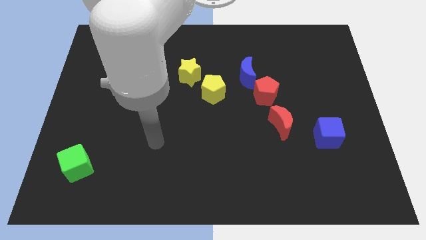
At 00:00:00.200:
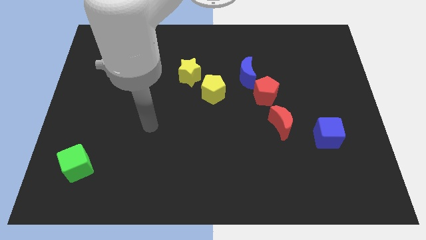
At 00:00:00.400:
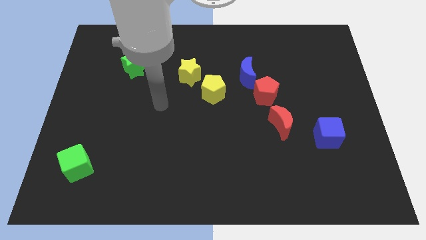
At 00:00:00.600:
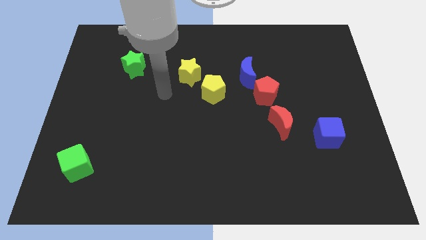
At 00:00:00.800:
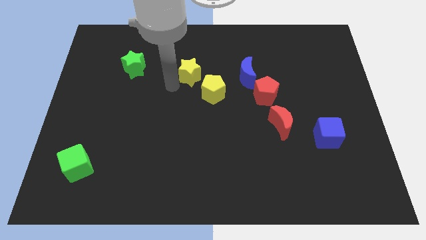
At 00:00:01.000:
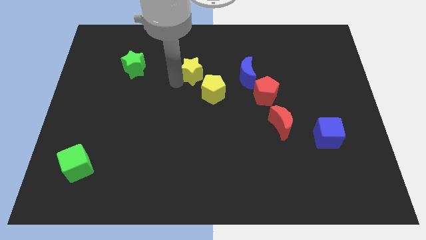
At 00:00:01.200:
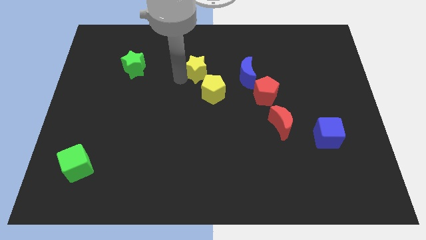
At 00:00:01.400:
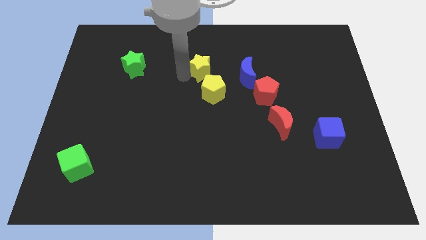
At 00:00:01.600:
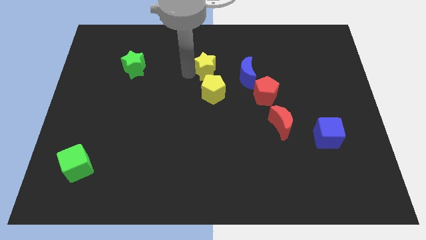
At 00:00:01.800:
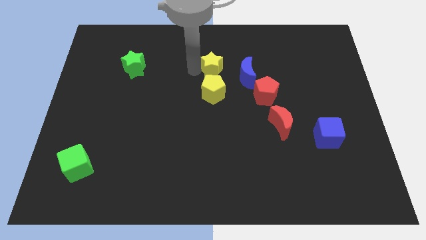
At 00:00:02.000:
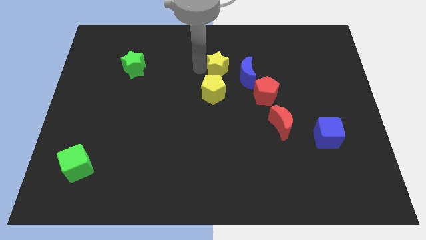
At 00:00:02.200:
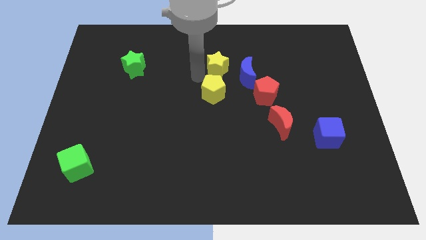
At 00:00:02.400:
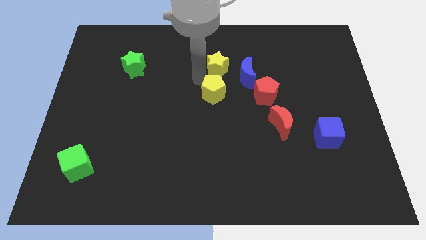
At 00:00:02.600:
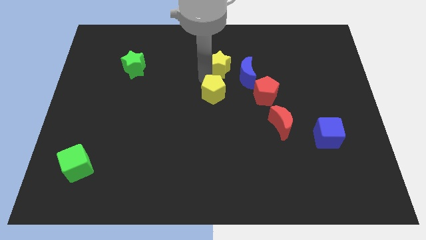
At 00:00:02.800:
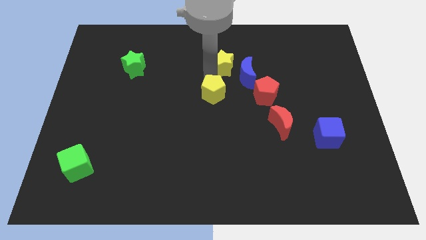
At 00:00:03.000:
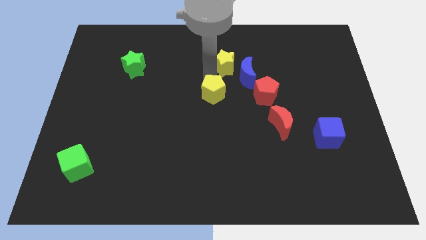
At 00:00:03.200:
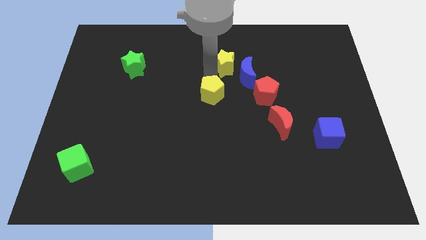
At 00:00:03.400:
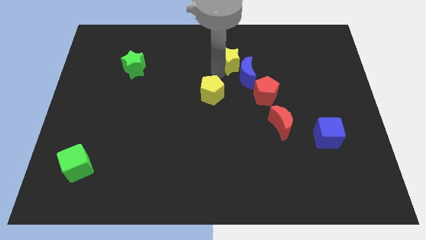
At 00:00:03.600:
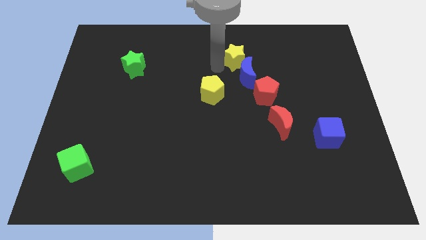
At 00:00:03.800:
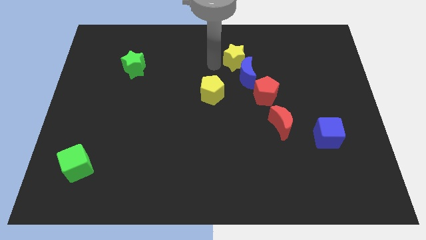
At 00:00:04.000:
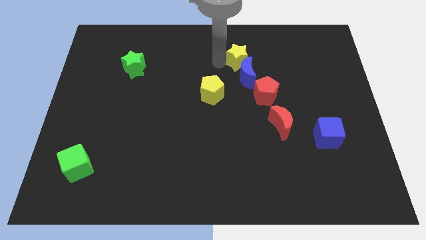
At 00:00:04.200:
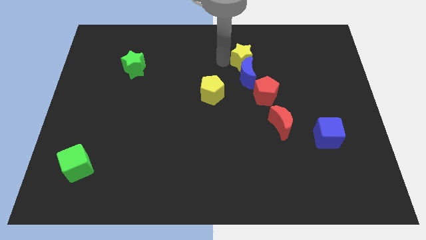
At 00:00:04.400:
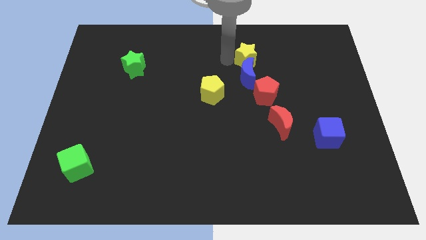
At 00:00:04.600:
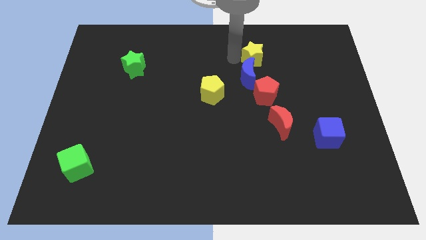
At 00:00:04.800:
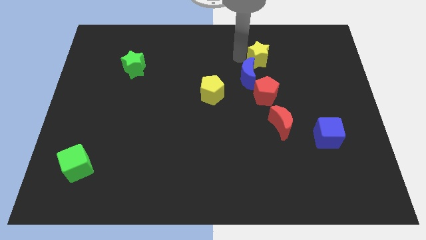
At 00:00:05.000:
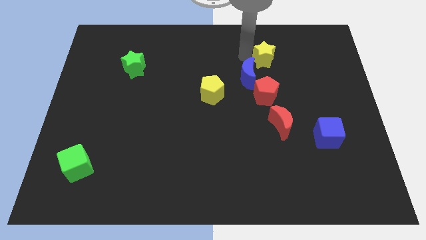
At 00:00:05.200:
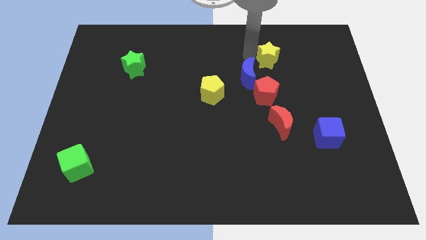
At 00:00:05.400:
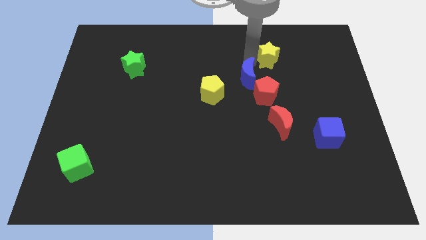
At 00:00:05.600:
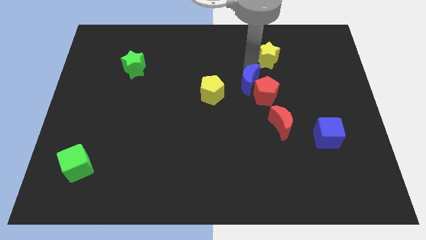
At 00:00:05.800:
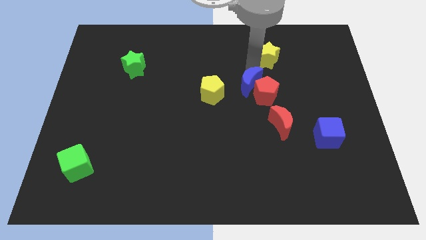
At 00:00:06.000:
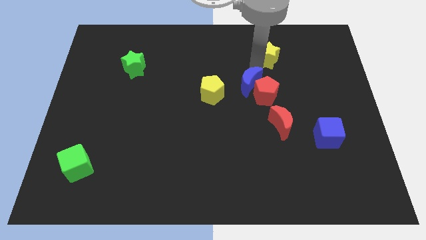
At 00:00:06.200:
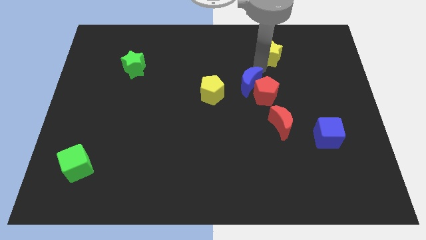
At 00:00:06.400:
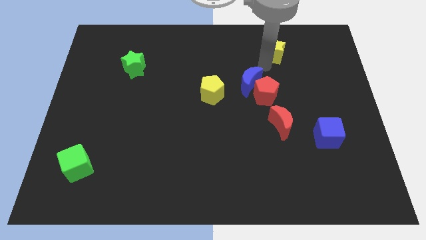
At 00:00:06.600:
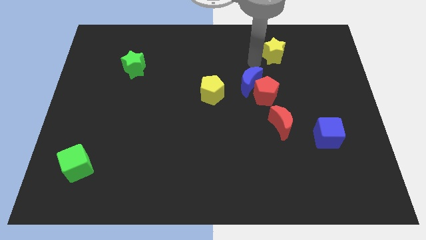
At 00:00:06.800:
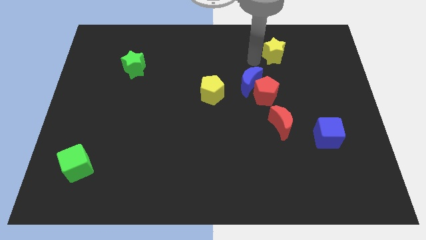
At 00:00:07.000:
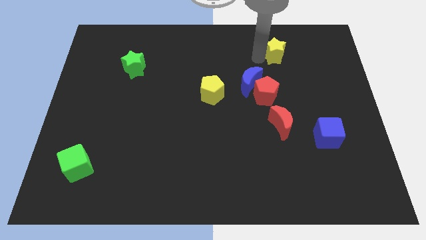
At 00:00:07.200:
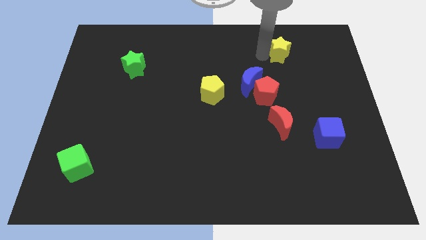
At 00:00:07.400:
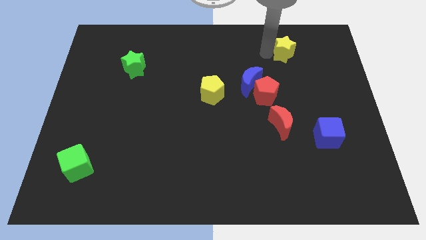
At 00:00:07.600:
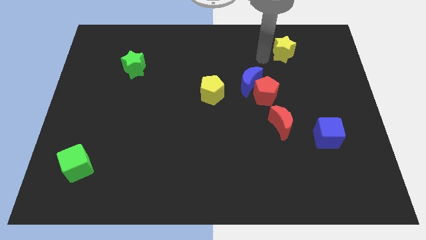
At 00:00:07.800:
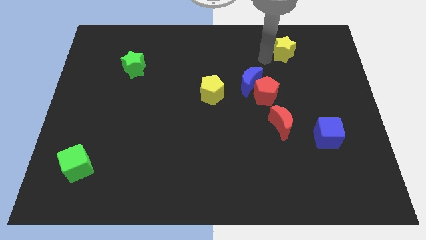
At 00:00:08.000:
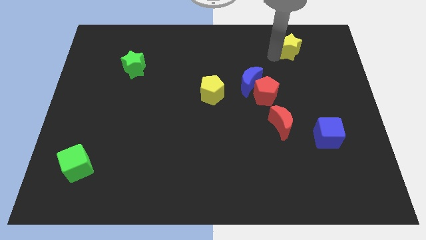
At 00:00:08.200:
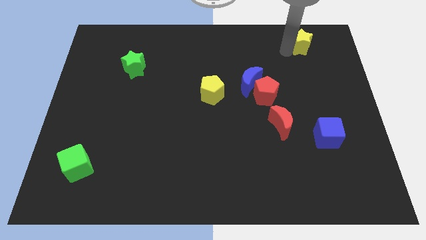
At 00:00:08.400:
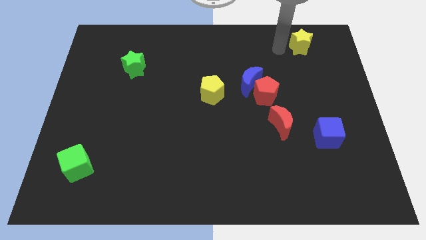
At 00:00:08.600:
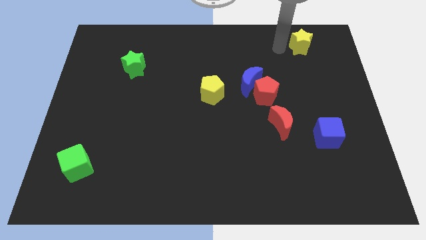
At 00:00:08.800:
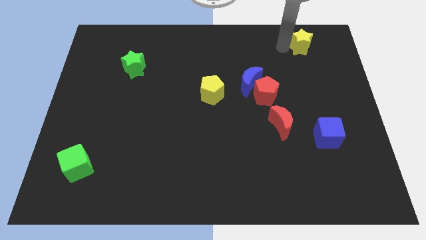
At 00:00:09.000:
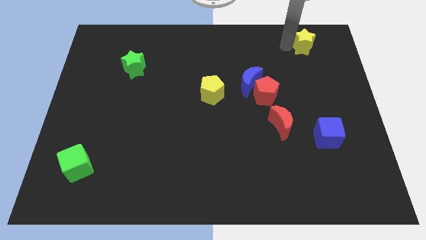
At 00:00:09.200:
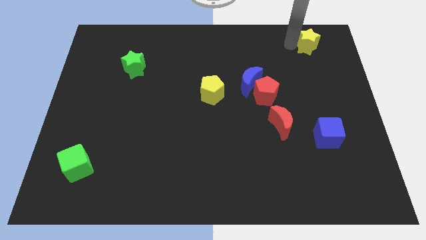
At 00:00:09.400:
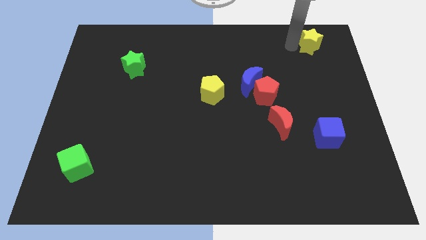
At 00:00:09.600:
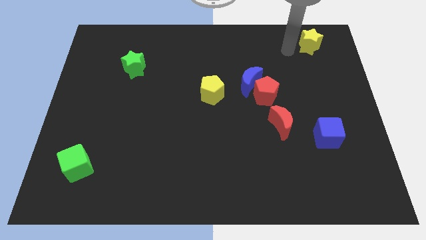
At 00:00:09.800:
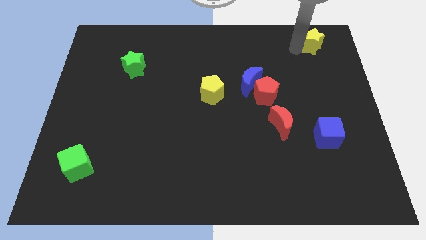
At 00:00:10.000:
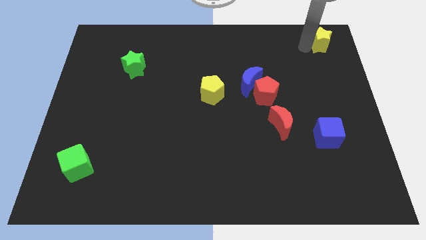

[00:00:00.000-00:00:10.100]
slide the yellow star to the top right of the board

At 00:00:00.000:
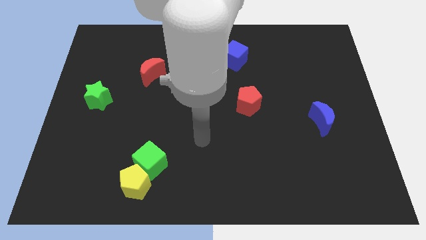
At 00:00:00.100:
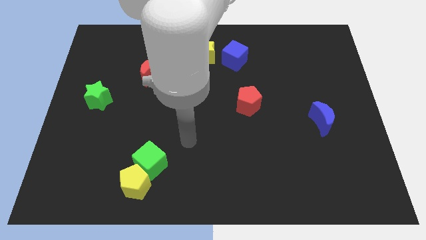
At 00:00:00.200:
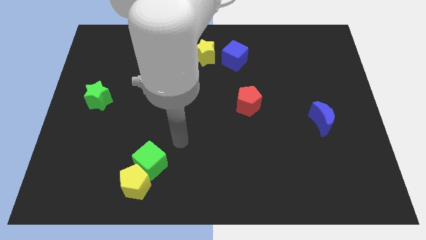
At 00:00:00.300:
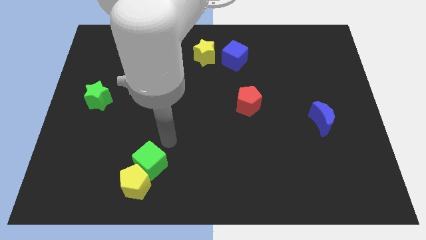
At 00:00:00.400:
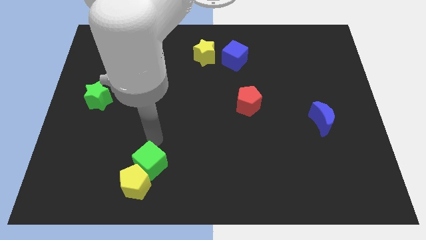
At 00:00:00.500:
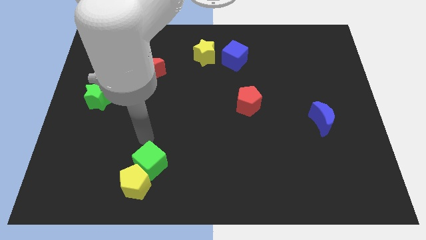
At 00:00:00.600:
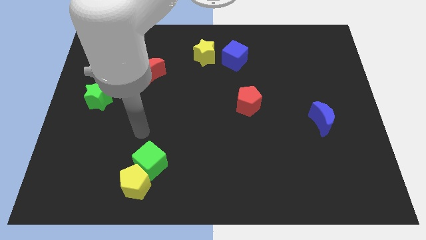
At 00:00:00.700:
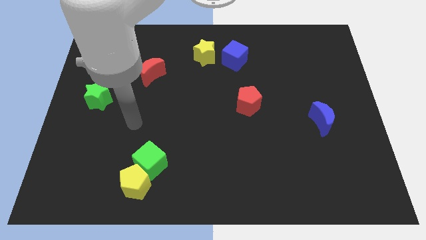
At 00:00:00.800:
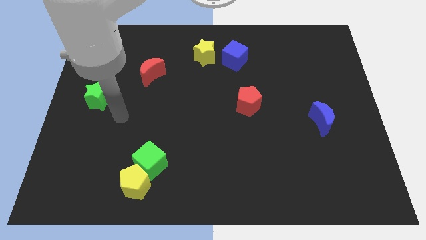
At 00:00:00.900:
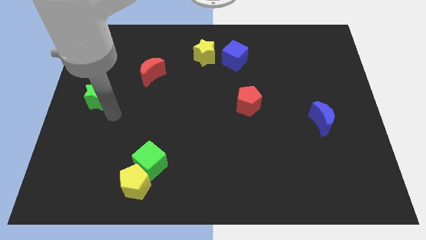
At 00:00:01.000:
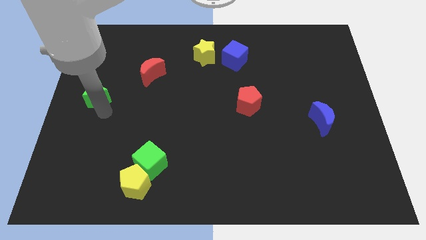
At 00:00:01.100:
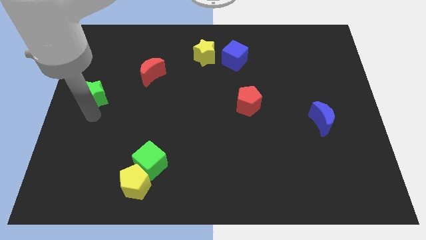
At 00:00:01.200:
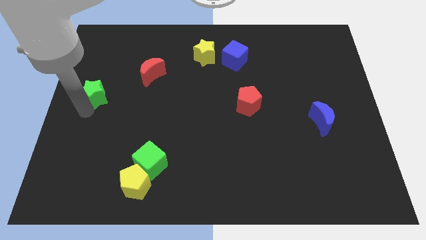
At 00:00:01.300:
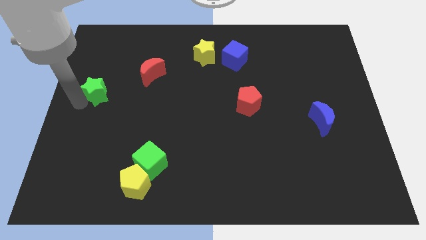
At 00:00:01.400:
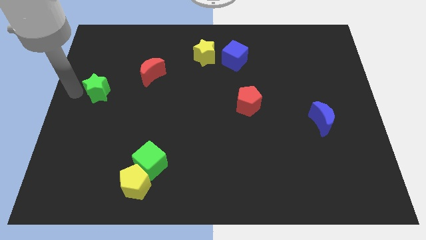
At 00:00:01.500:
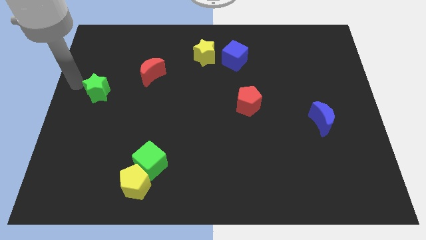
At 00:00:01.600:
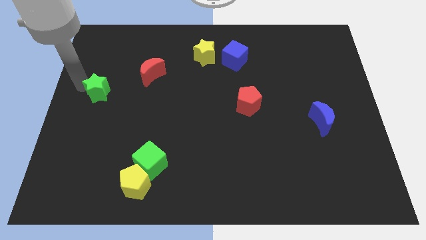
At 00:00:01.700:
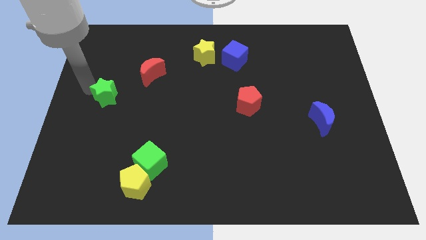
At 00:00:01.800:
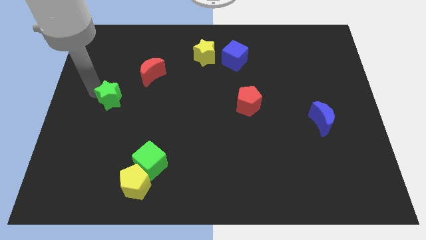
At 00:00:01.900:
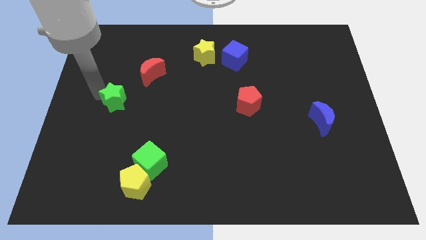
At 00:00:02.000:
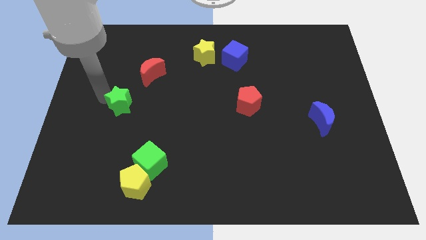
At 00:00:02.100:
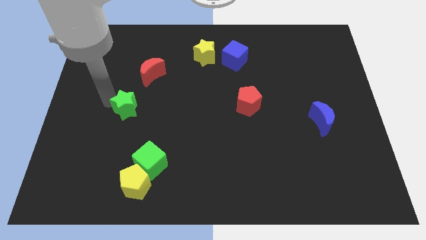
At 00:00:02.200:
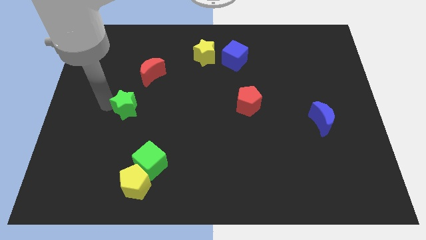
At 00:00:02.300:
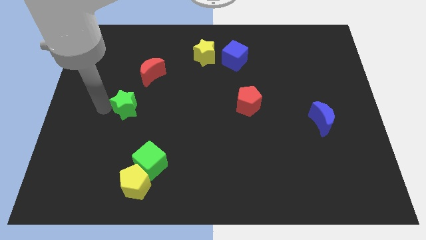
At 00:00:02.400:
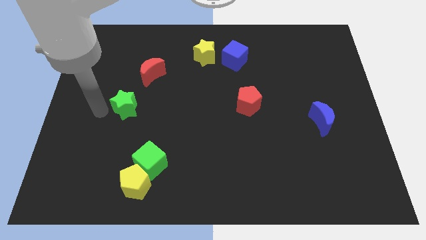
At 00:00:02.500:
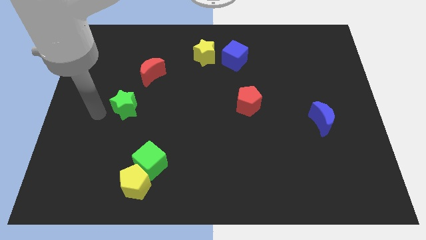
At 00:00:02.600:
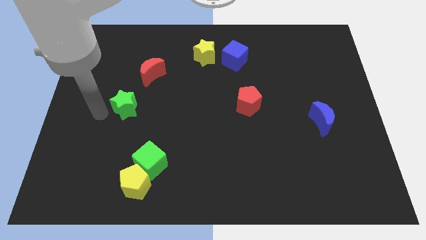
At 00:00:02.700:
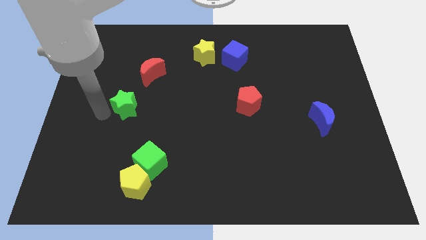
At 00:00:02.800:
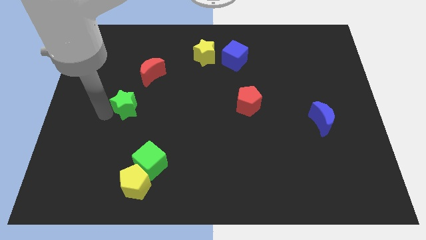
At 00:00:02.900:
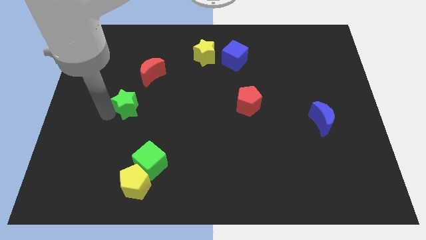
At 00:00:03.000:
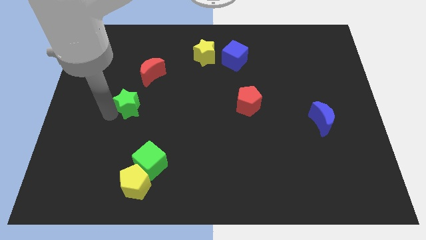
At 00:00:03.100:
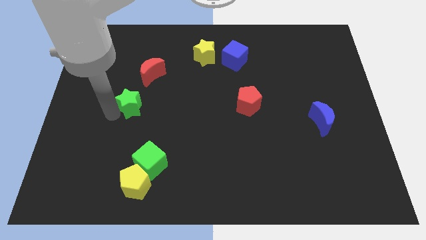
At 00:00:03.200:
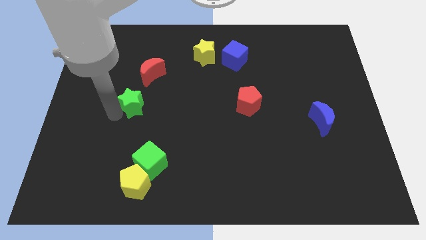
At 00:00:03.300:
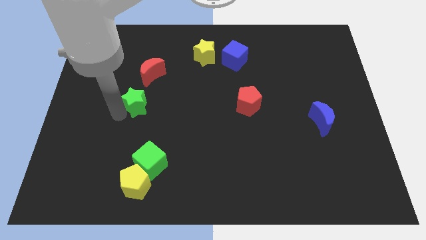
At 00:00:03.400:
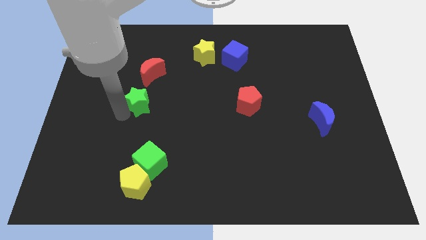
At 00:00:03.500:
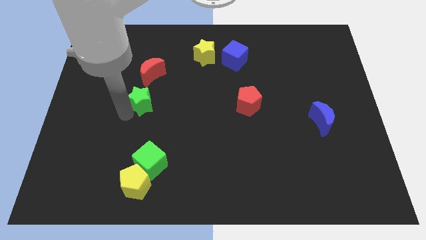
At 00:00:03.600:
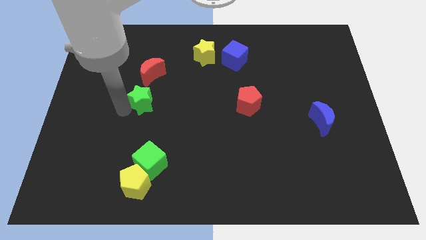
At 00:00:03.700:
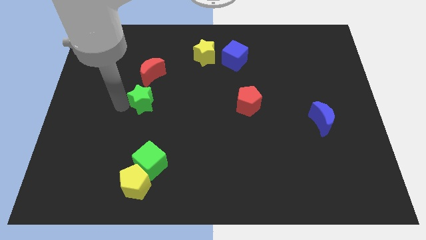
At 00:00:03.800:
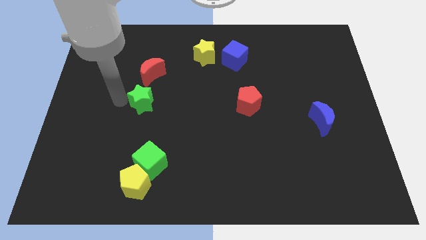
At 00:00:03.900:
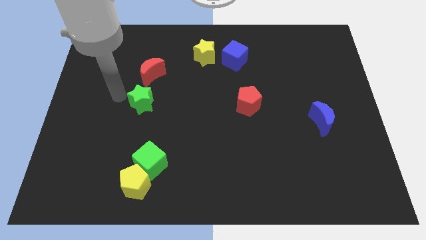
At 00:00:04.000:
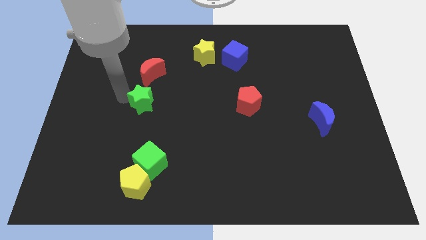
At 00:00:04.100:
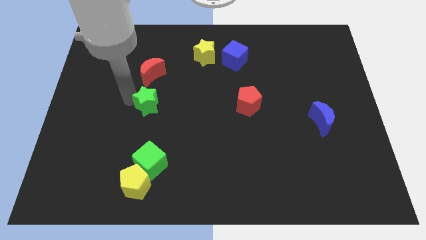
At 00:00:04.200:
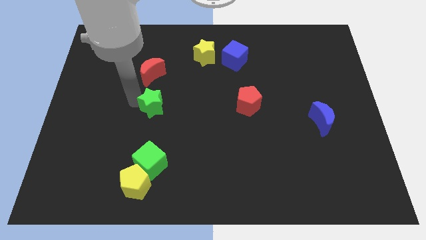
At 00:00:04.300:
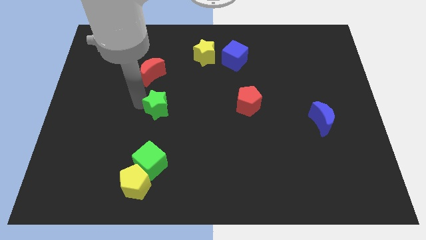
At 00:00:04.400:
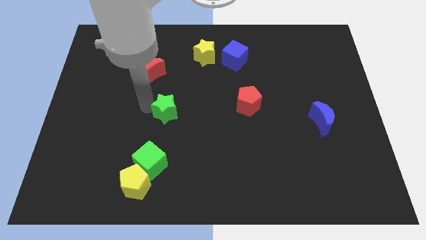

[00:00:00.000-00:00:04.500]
move the green star to the center
